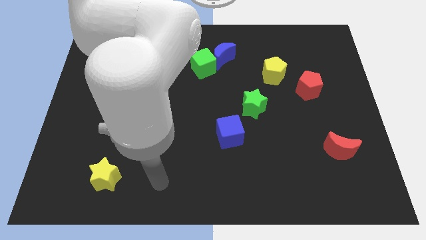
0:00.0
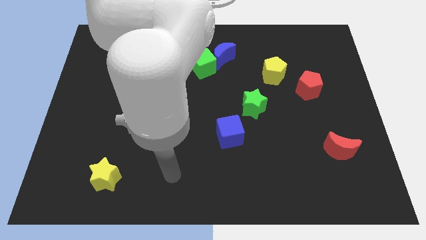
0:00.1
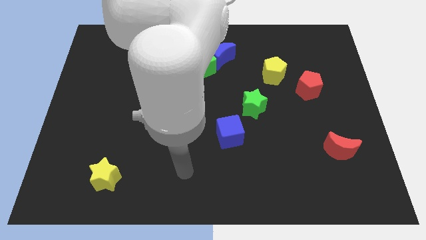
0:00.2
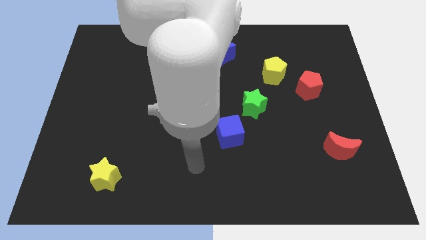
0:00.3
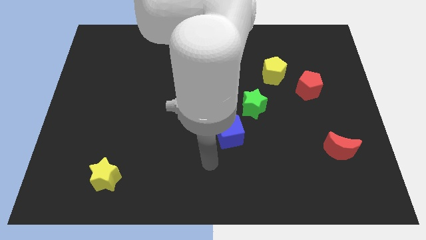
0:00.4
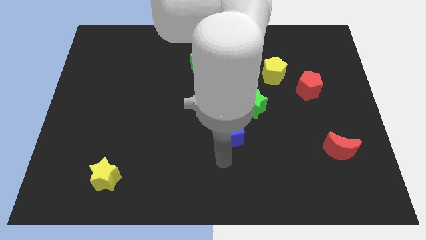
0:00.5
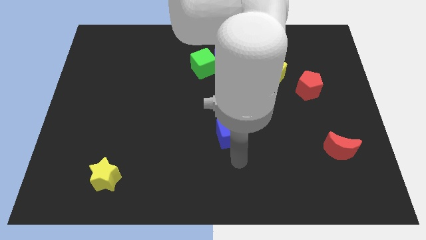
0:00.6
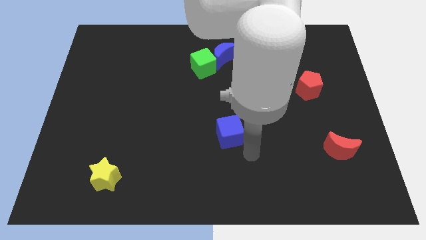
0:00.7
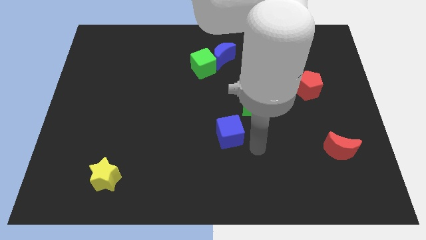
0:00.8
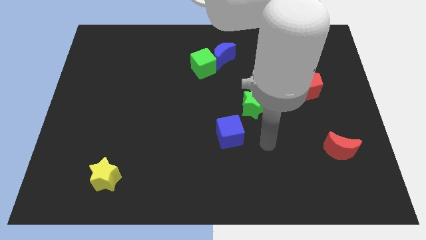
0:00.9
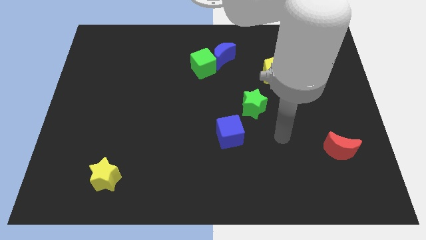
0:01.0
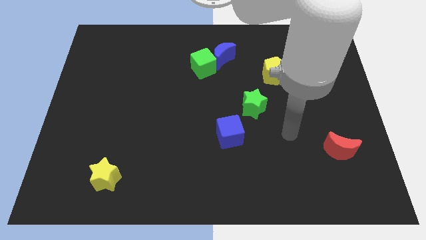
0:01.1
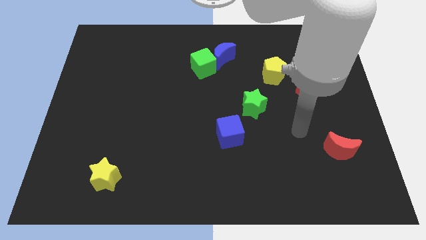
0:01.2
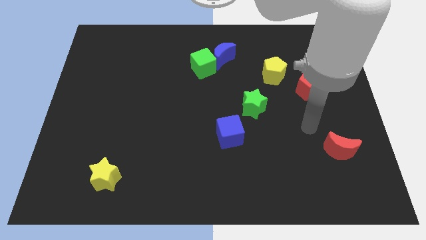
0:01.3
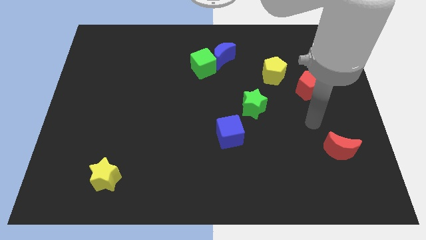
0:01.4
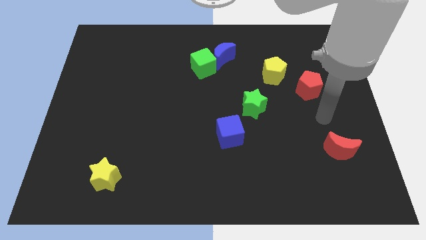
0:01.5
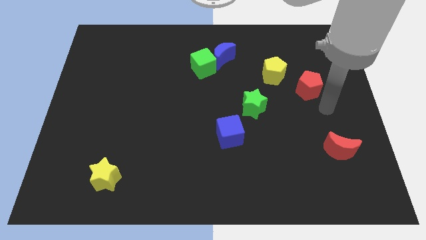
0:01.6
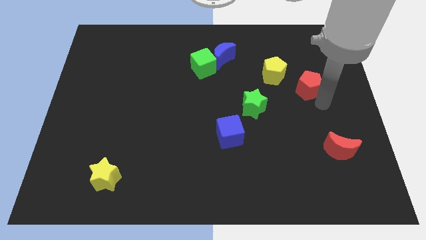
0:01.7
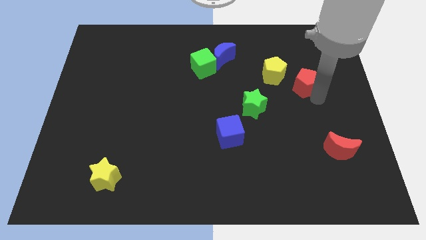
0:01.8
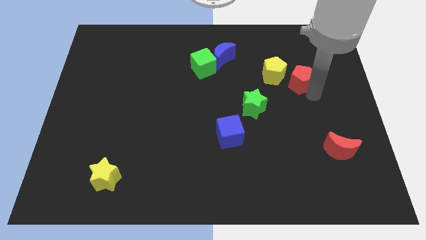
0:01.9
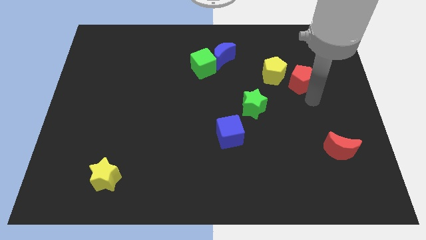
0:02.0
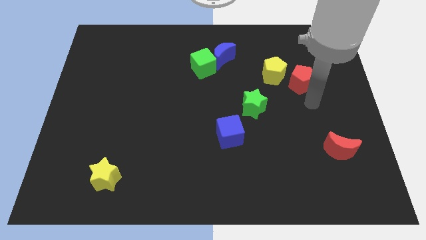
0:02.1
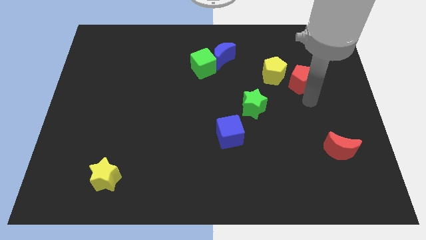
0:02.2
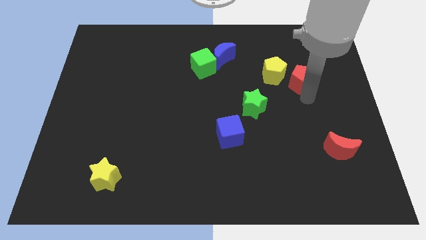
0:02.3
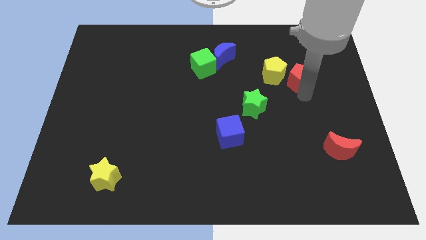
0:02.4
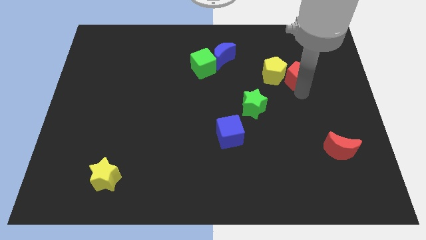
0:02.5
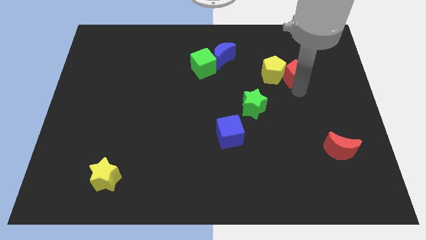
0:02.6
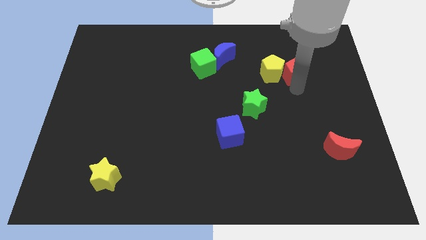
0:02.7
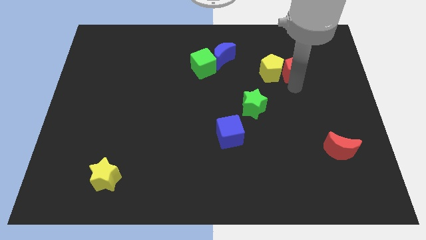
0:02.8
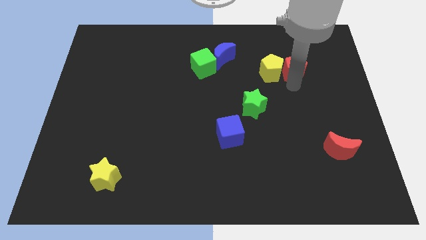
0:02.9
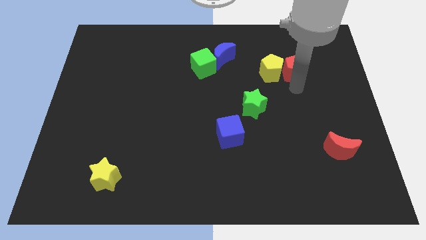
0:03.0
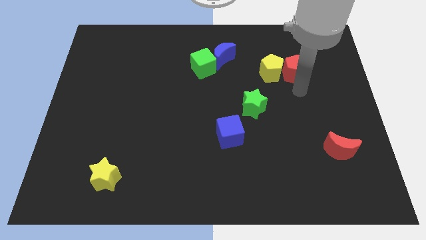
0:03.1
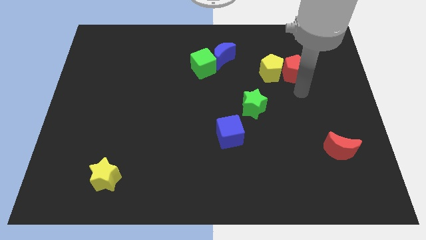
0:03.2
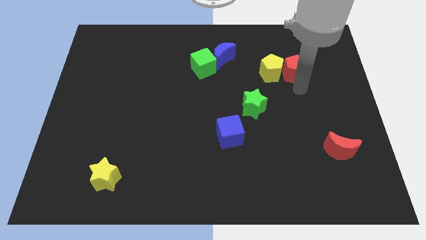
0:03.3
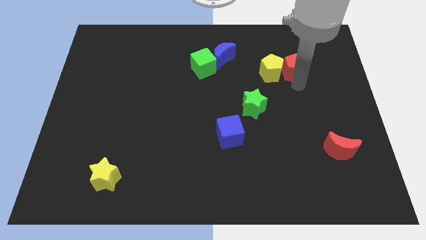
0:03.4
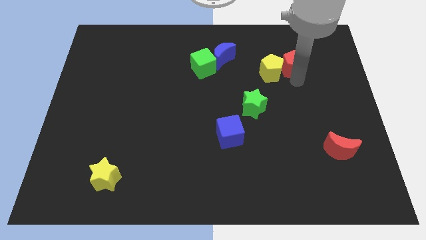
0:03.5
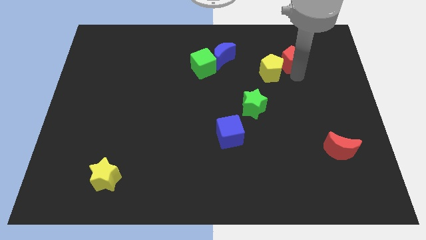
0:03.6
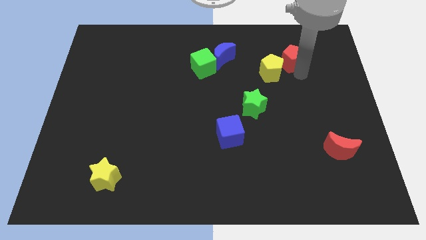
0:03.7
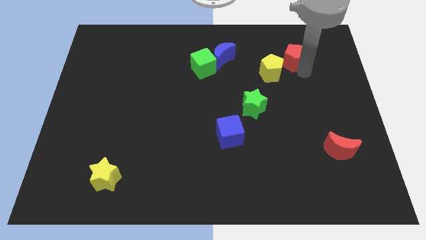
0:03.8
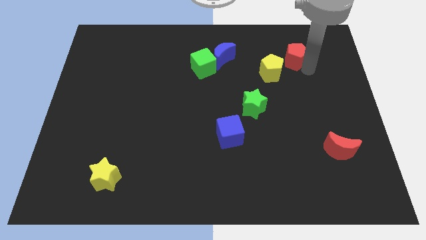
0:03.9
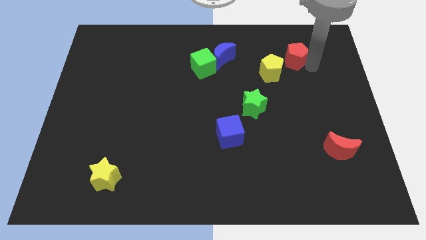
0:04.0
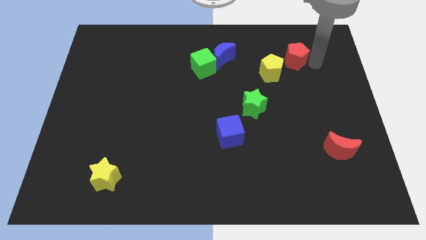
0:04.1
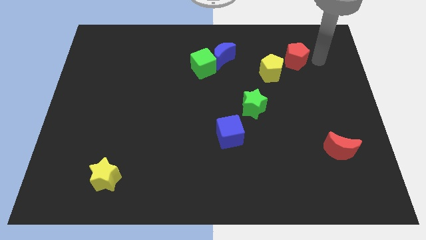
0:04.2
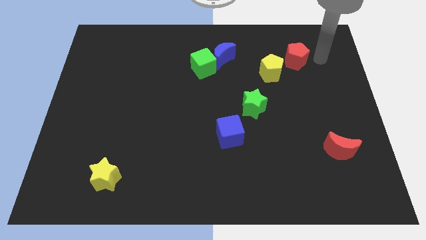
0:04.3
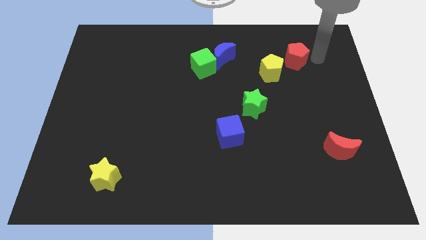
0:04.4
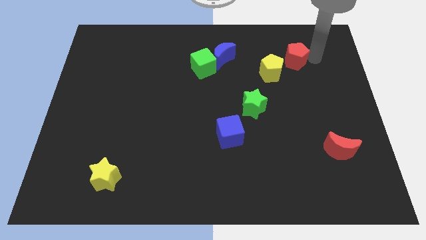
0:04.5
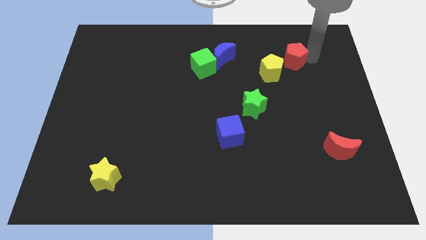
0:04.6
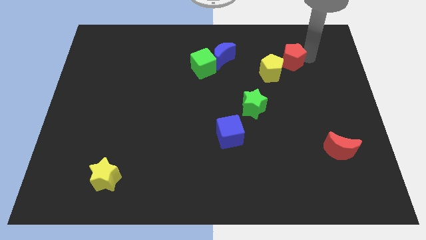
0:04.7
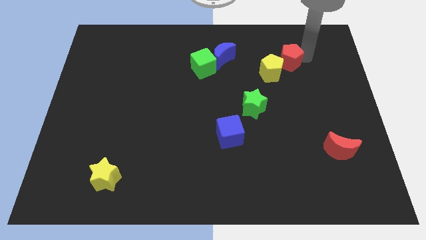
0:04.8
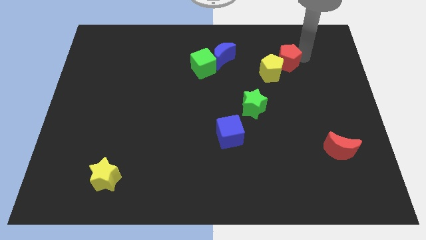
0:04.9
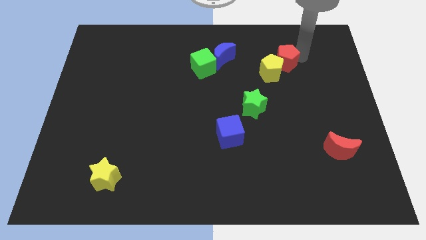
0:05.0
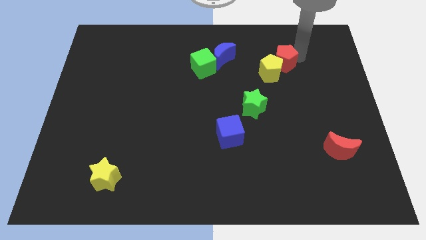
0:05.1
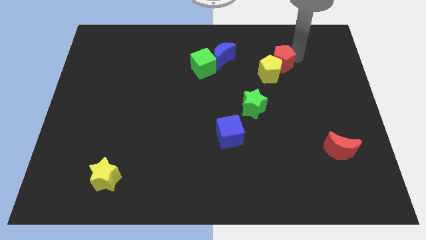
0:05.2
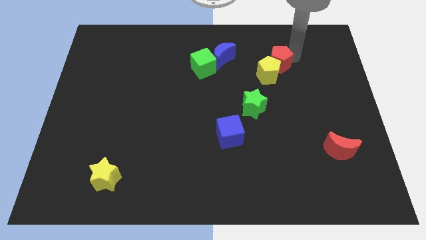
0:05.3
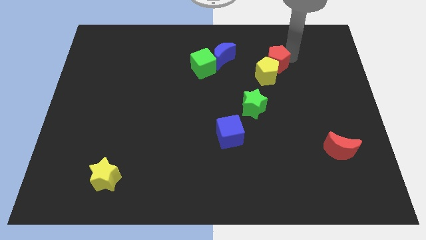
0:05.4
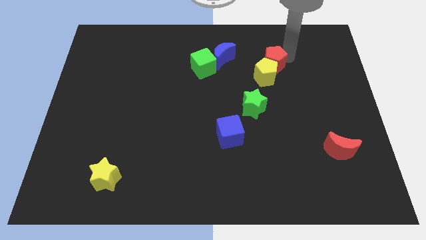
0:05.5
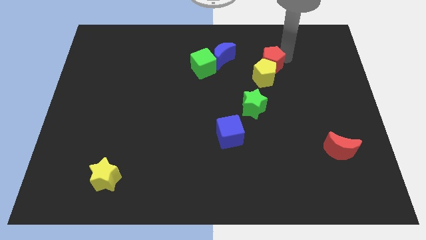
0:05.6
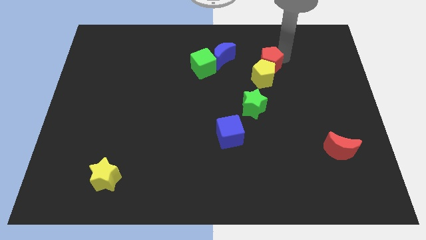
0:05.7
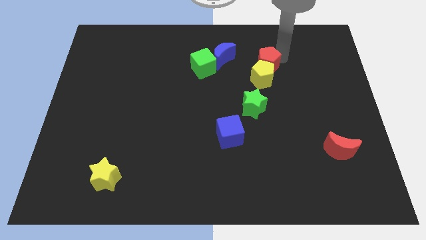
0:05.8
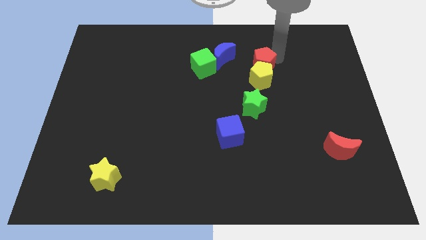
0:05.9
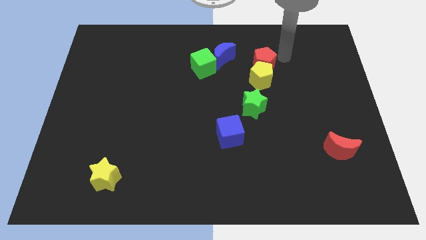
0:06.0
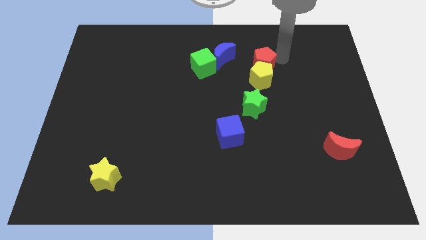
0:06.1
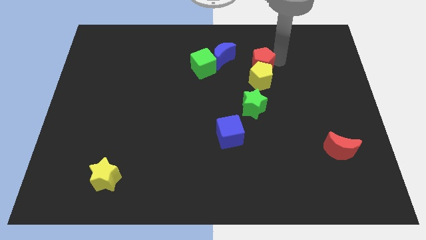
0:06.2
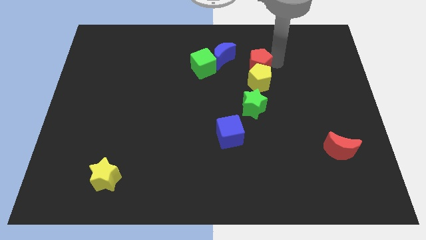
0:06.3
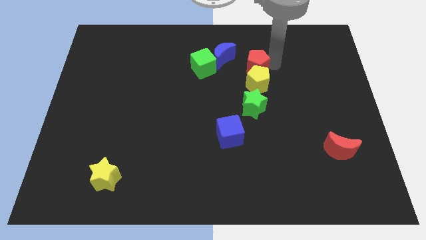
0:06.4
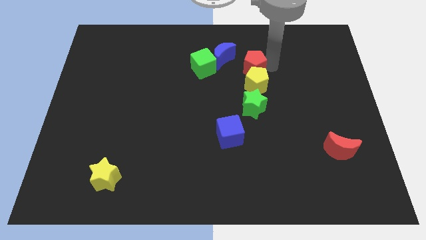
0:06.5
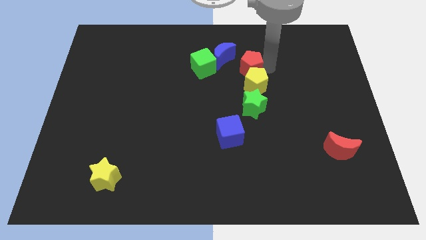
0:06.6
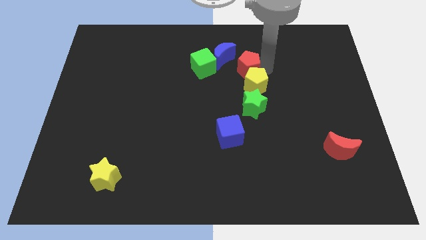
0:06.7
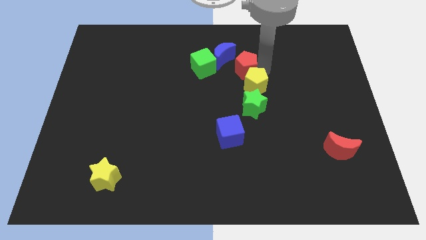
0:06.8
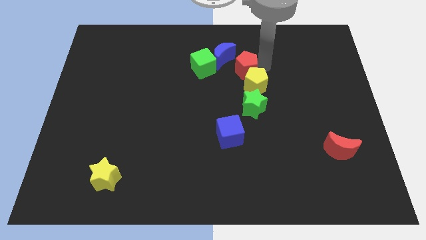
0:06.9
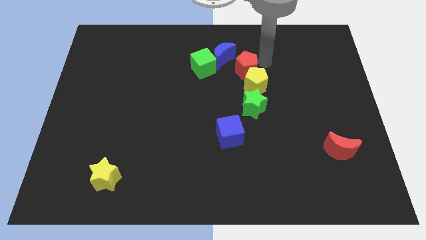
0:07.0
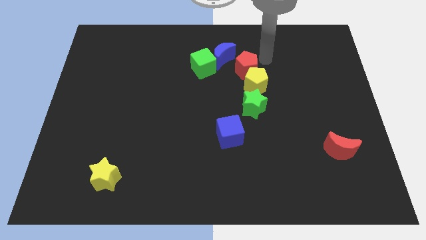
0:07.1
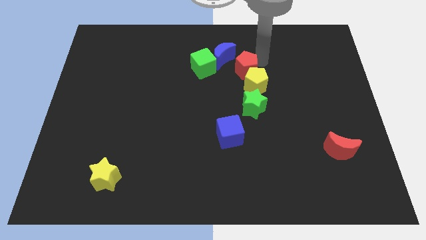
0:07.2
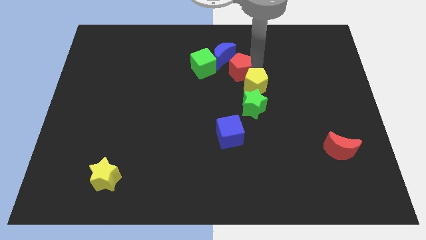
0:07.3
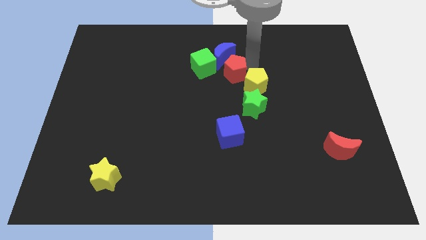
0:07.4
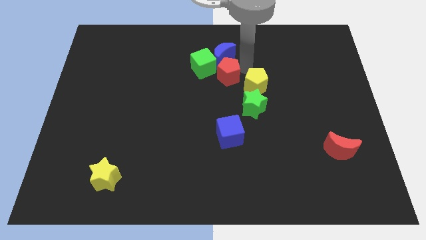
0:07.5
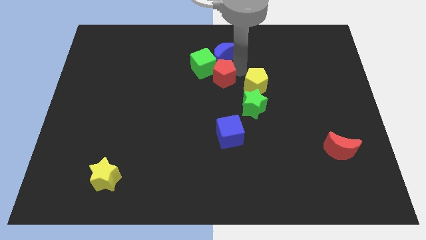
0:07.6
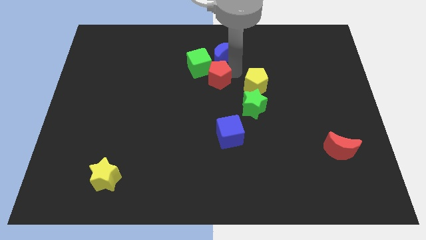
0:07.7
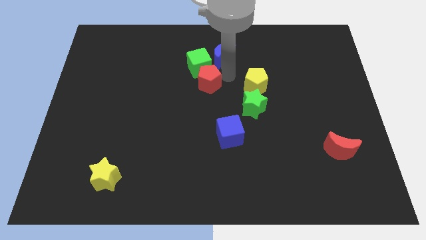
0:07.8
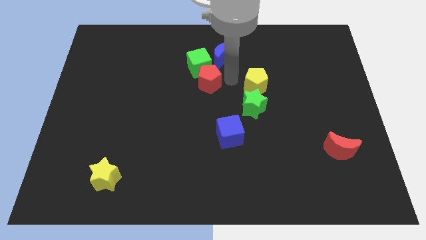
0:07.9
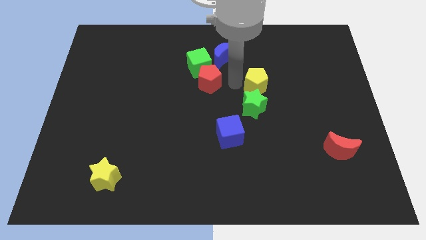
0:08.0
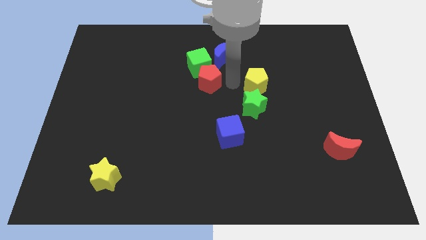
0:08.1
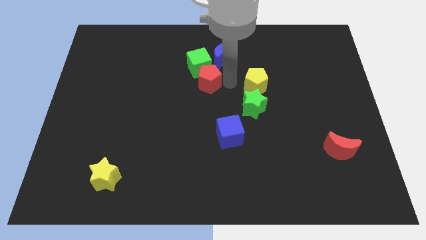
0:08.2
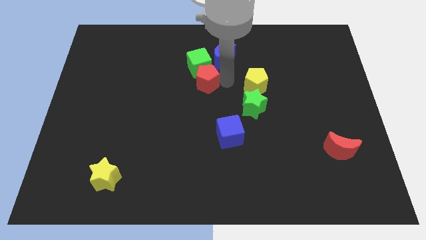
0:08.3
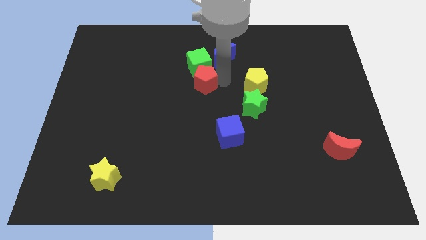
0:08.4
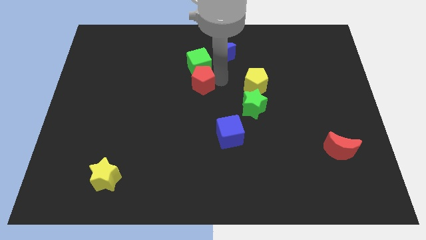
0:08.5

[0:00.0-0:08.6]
move the red pentagon diagonally down and to the left of the green cube
